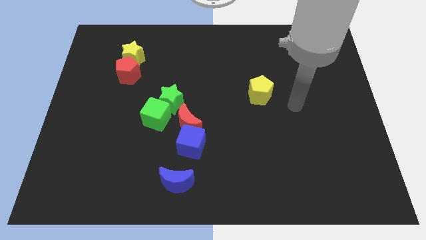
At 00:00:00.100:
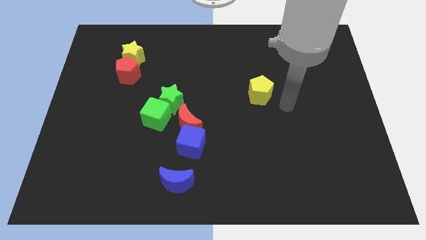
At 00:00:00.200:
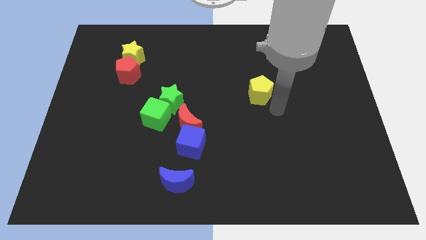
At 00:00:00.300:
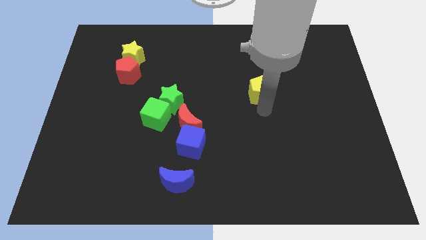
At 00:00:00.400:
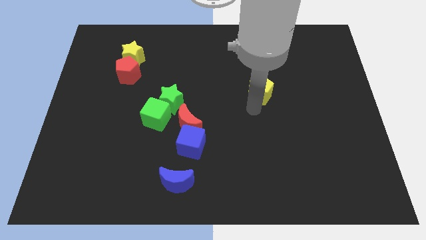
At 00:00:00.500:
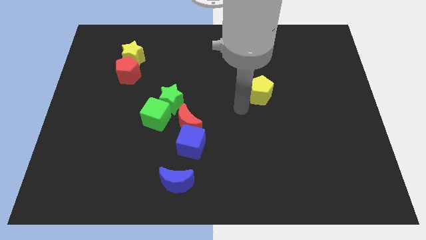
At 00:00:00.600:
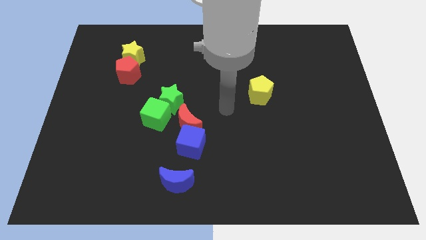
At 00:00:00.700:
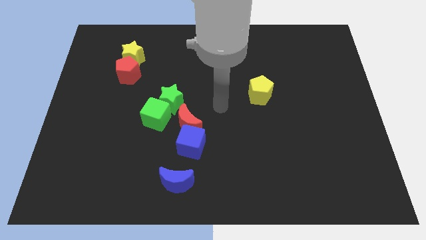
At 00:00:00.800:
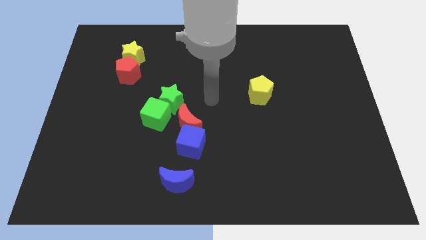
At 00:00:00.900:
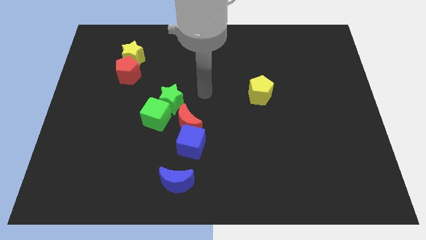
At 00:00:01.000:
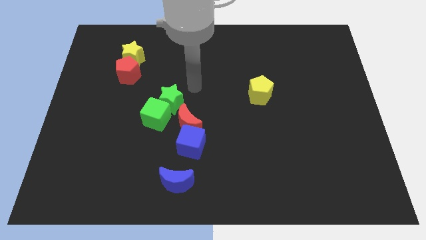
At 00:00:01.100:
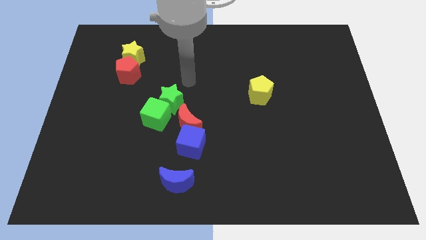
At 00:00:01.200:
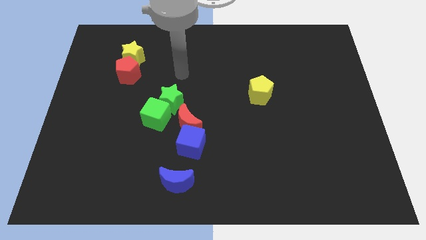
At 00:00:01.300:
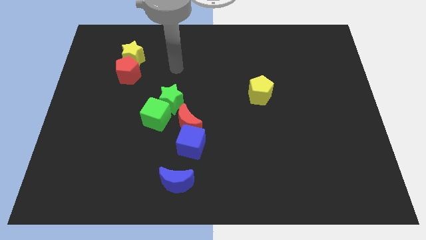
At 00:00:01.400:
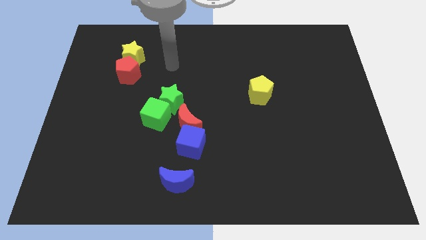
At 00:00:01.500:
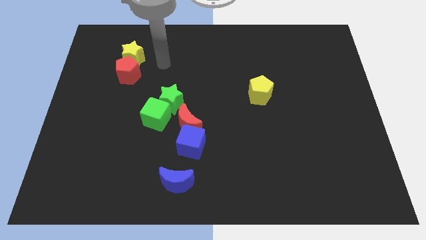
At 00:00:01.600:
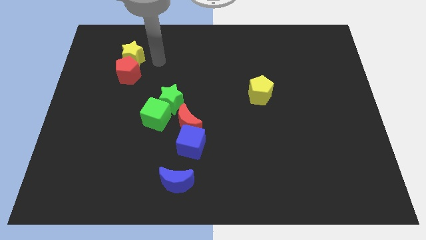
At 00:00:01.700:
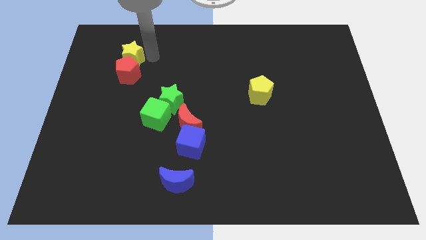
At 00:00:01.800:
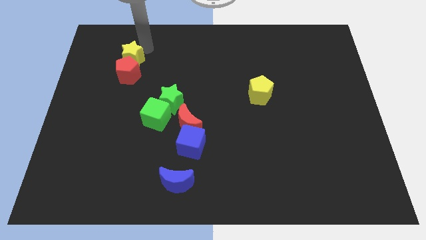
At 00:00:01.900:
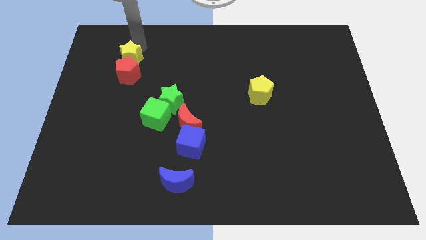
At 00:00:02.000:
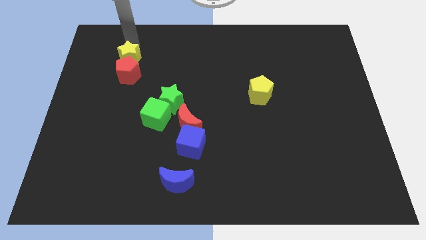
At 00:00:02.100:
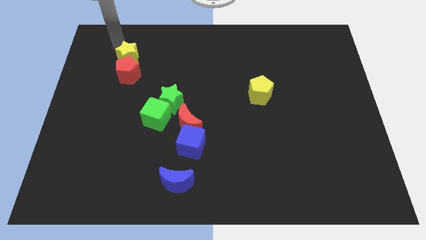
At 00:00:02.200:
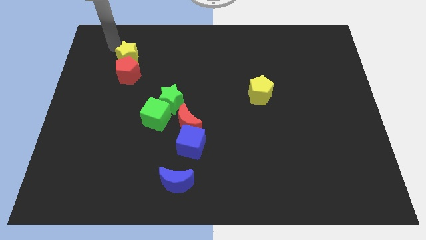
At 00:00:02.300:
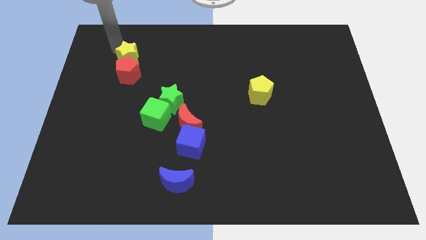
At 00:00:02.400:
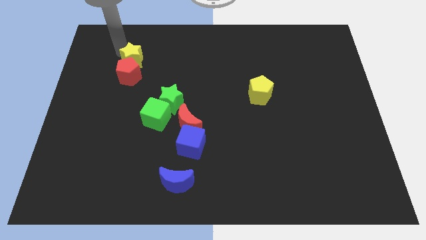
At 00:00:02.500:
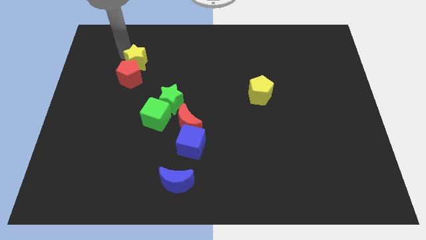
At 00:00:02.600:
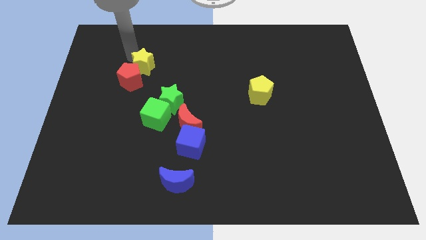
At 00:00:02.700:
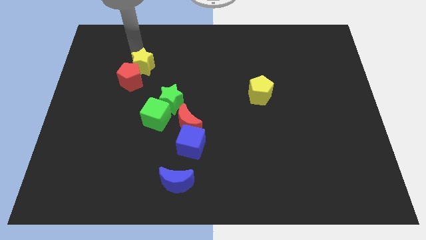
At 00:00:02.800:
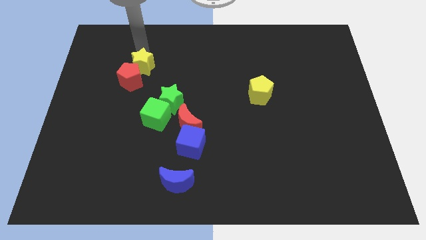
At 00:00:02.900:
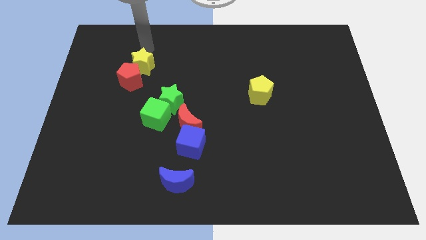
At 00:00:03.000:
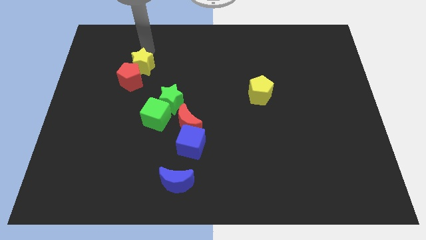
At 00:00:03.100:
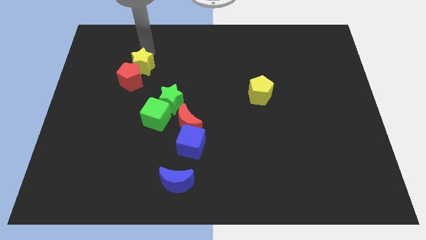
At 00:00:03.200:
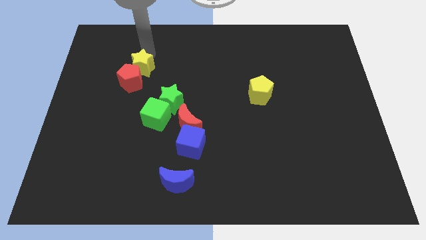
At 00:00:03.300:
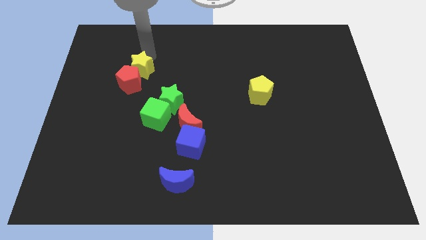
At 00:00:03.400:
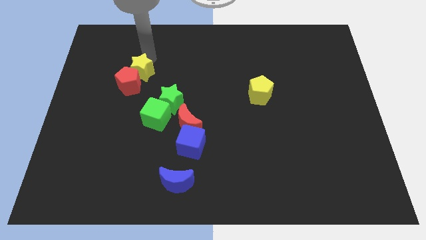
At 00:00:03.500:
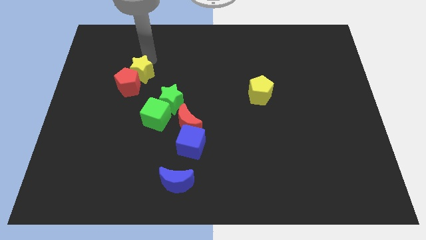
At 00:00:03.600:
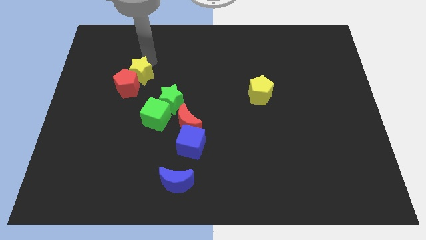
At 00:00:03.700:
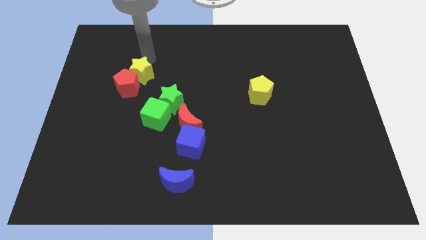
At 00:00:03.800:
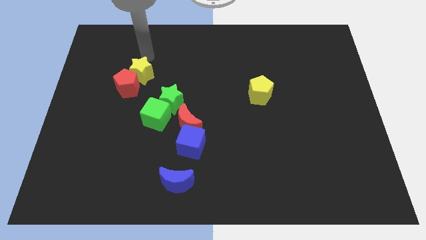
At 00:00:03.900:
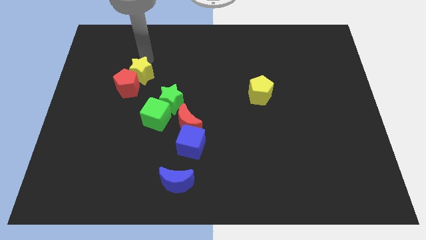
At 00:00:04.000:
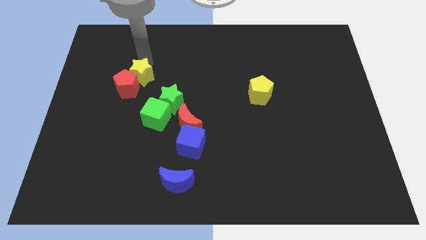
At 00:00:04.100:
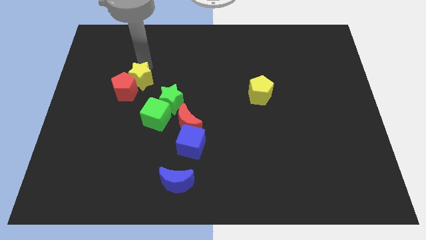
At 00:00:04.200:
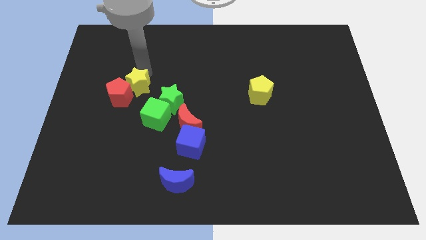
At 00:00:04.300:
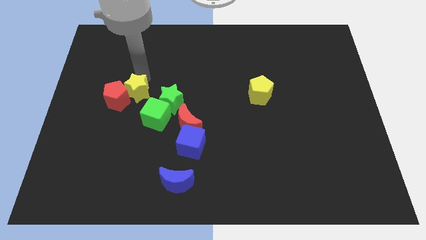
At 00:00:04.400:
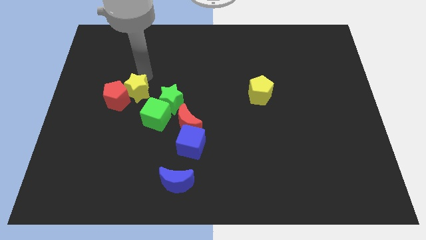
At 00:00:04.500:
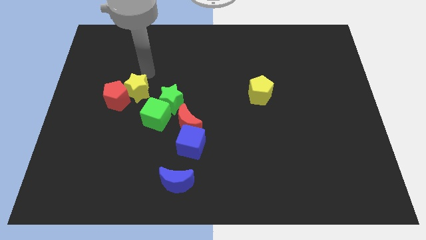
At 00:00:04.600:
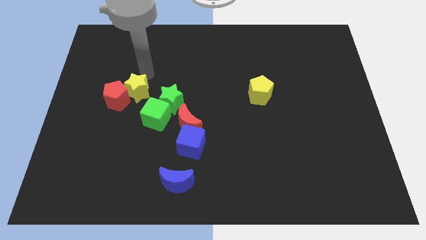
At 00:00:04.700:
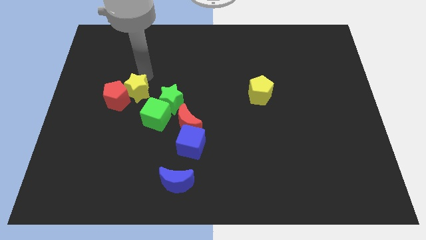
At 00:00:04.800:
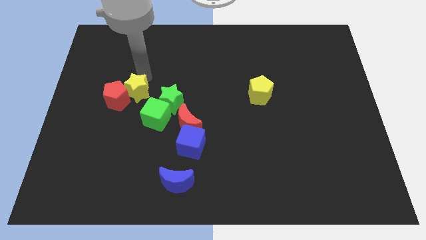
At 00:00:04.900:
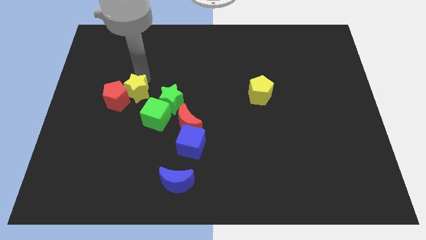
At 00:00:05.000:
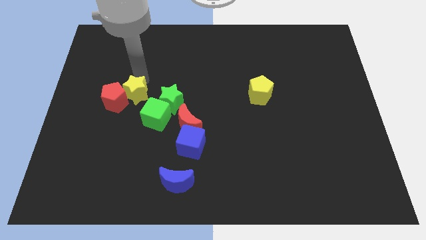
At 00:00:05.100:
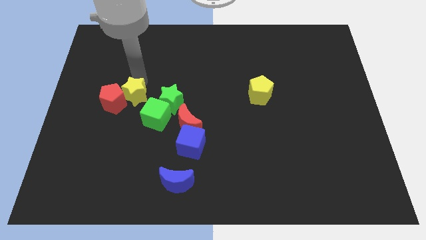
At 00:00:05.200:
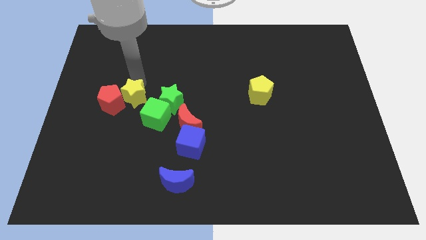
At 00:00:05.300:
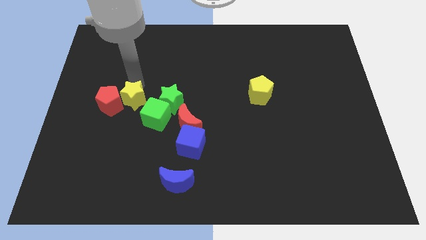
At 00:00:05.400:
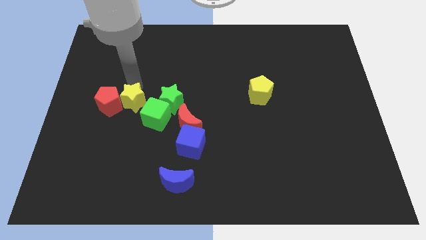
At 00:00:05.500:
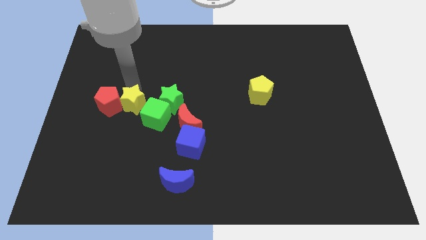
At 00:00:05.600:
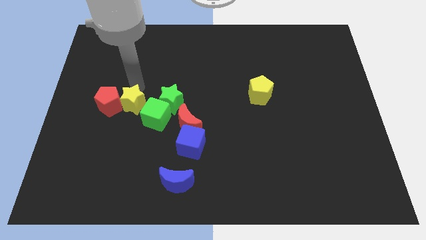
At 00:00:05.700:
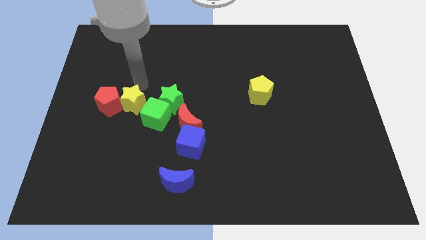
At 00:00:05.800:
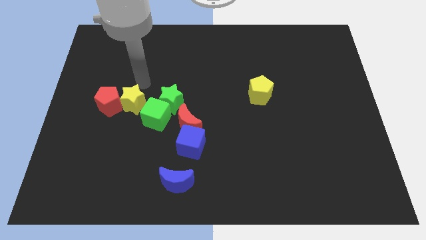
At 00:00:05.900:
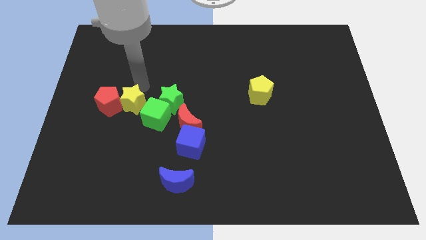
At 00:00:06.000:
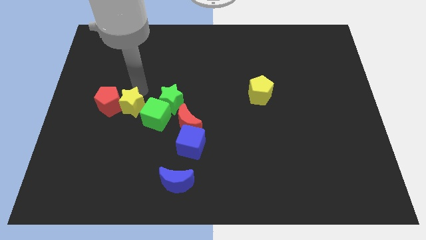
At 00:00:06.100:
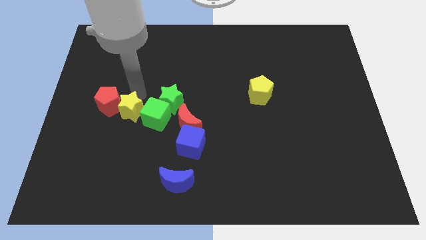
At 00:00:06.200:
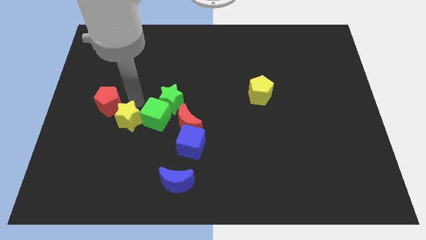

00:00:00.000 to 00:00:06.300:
move the yellow star down

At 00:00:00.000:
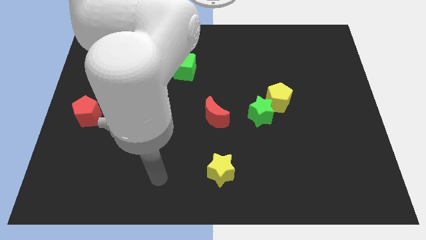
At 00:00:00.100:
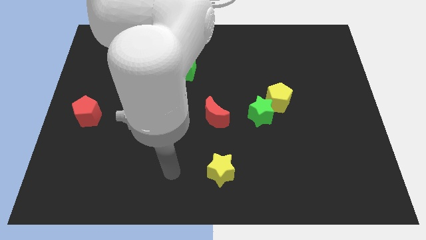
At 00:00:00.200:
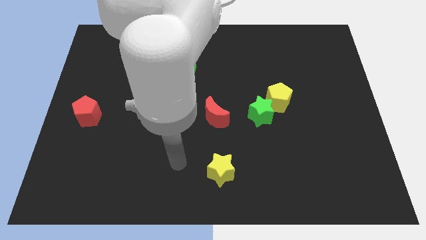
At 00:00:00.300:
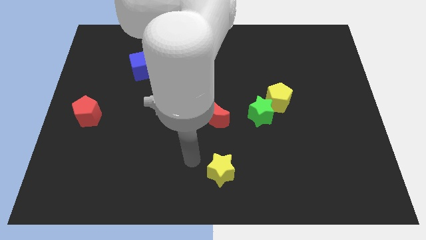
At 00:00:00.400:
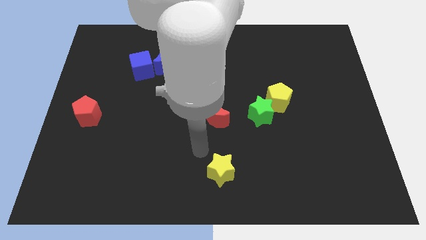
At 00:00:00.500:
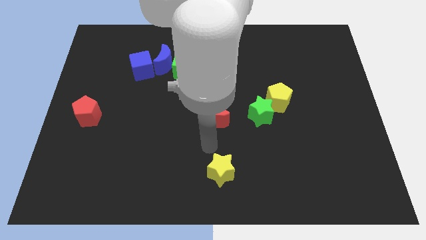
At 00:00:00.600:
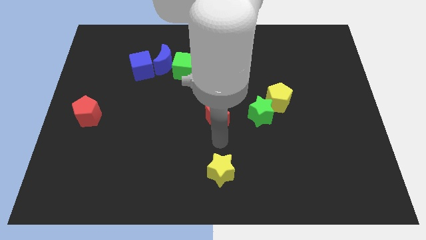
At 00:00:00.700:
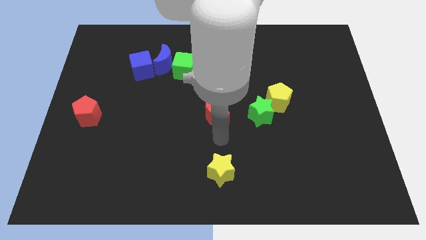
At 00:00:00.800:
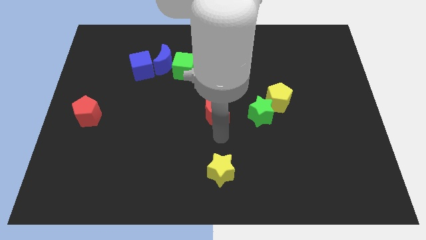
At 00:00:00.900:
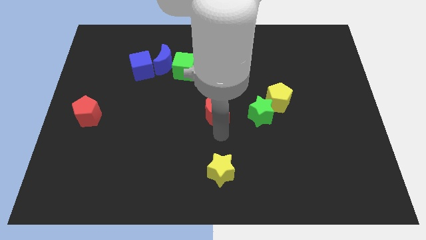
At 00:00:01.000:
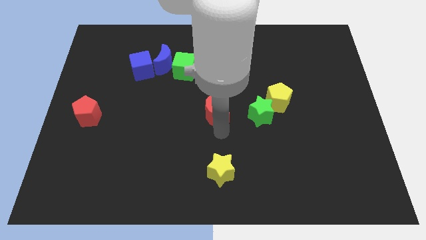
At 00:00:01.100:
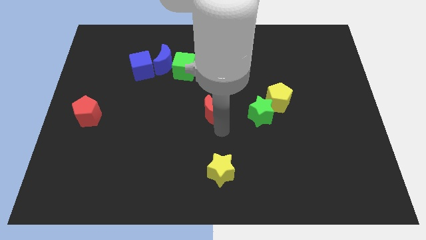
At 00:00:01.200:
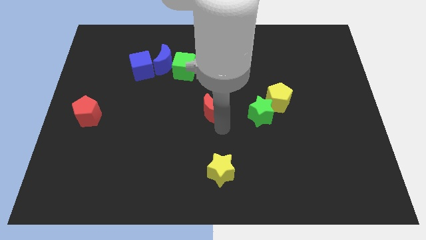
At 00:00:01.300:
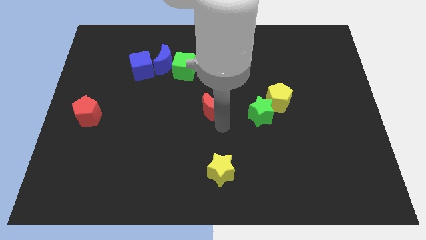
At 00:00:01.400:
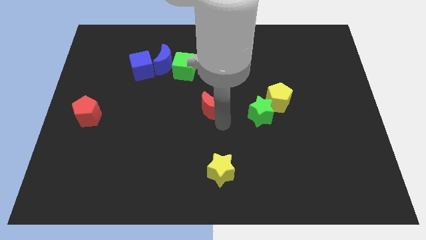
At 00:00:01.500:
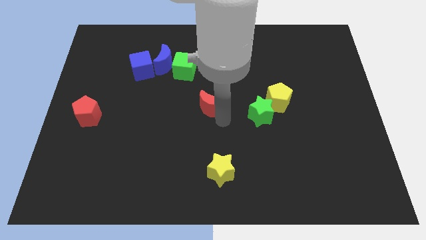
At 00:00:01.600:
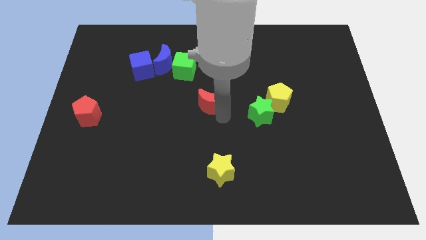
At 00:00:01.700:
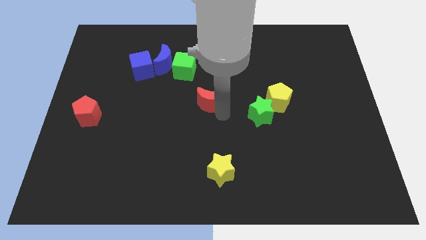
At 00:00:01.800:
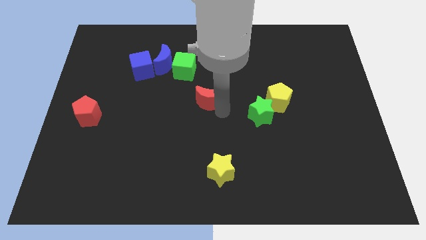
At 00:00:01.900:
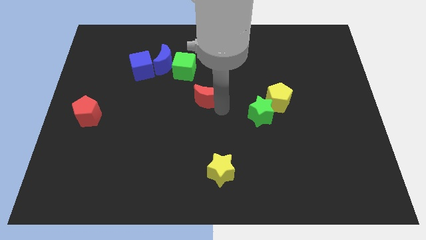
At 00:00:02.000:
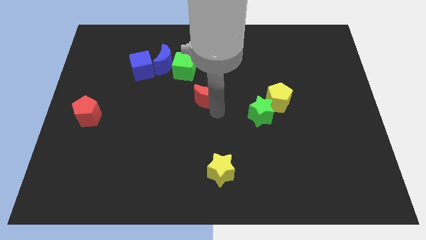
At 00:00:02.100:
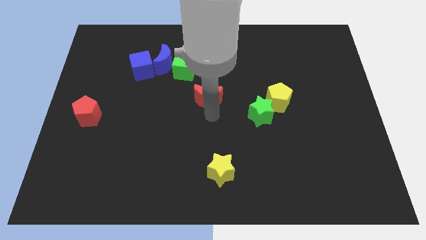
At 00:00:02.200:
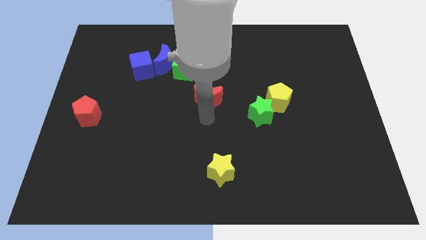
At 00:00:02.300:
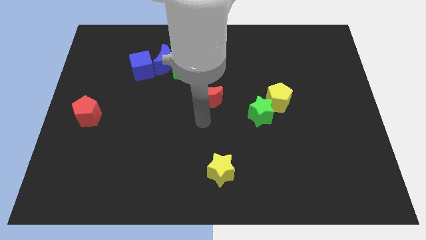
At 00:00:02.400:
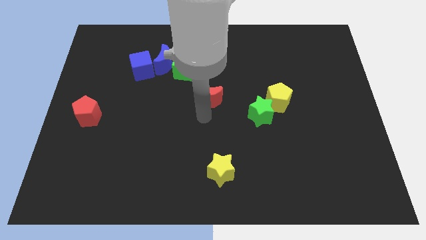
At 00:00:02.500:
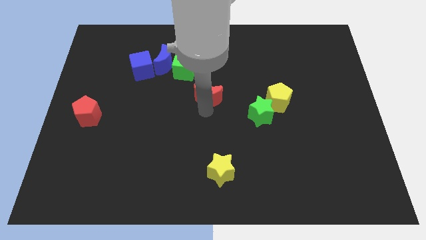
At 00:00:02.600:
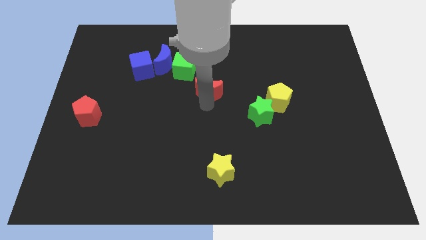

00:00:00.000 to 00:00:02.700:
slide the red moon up slightly
